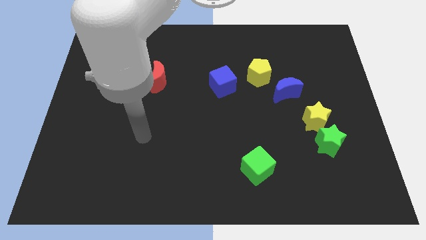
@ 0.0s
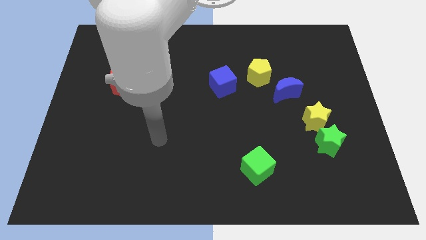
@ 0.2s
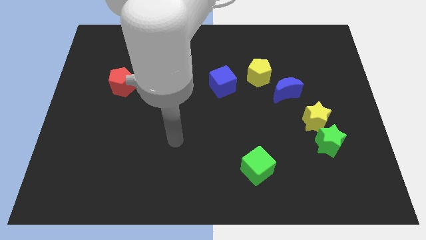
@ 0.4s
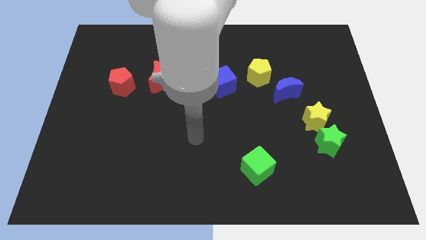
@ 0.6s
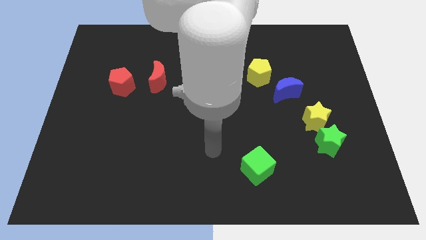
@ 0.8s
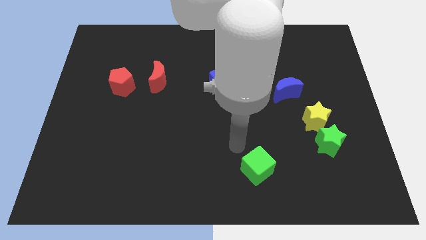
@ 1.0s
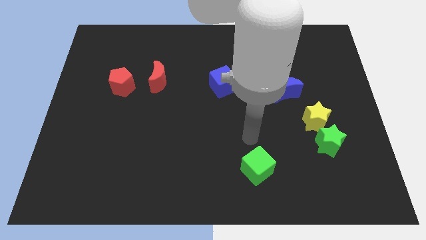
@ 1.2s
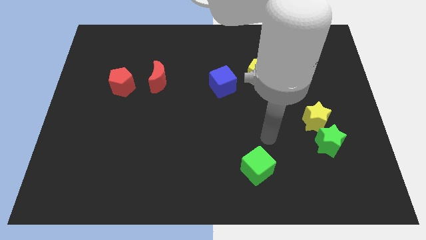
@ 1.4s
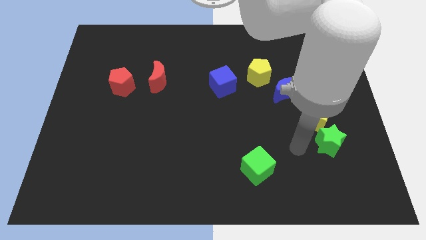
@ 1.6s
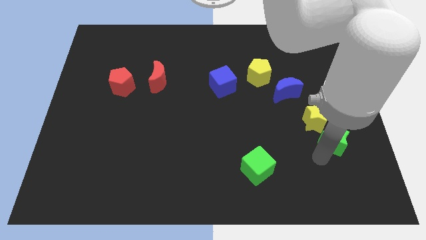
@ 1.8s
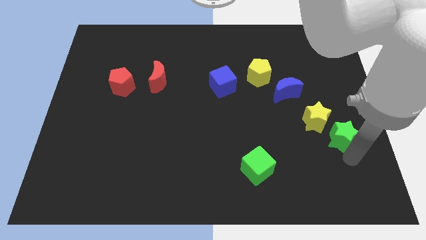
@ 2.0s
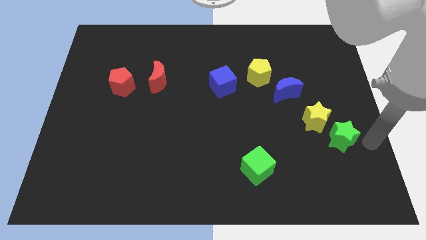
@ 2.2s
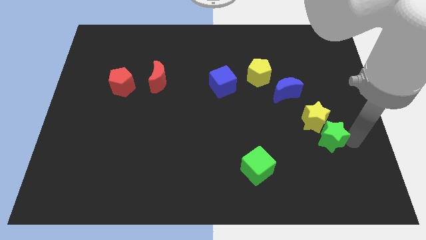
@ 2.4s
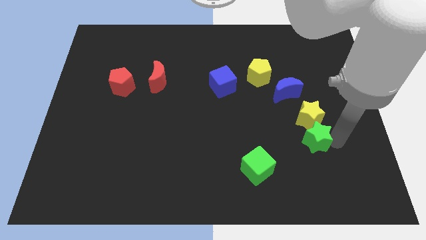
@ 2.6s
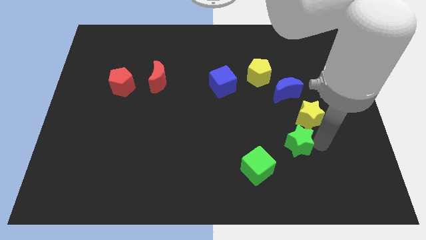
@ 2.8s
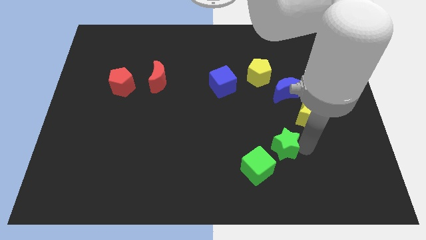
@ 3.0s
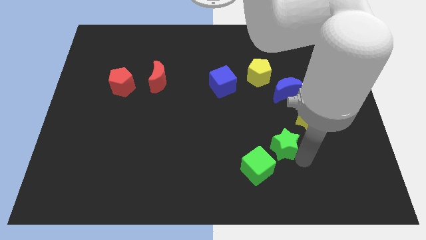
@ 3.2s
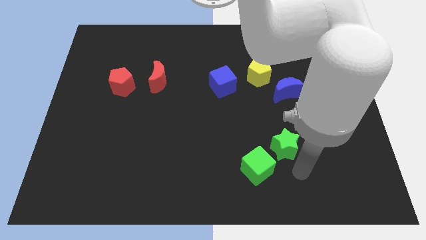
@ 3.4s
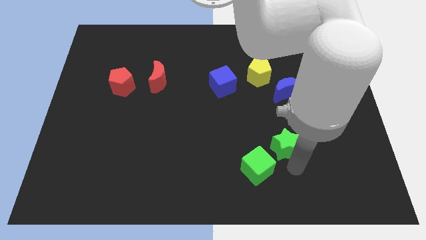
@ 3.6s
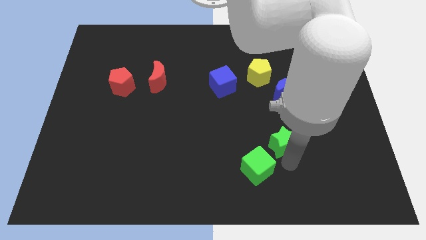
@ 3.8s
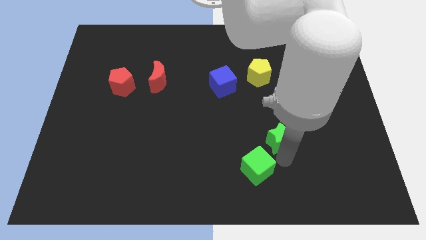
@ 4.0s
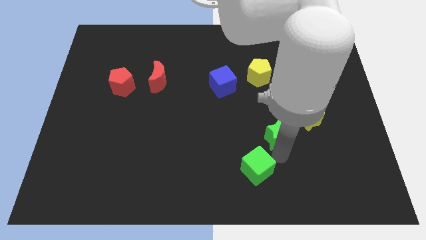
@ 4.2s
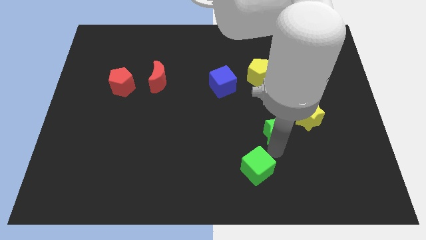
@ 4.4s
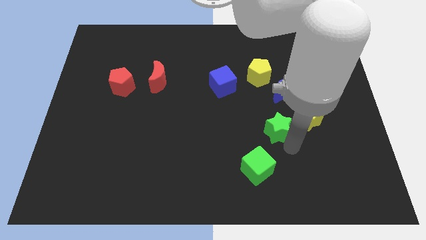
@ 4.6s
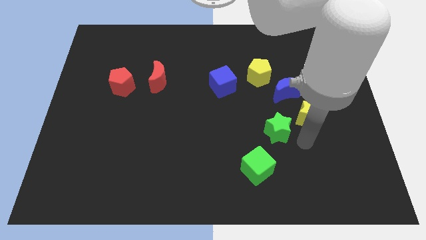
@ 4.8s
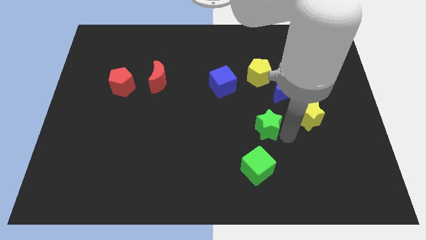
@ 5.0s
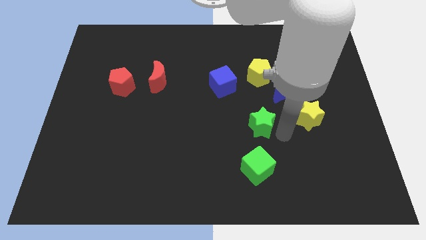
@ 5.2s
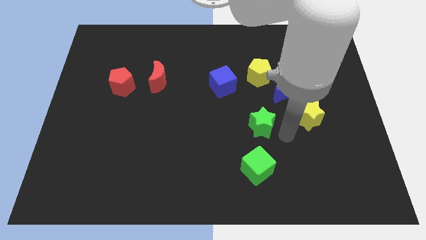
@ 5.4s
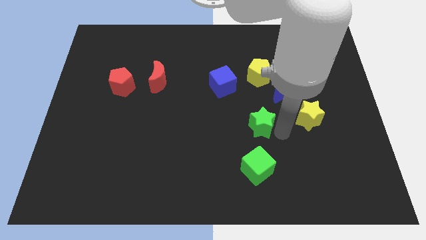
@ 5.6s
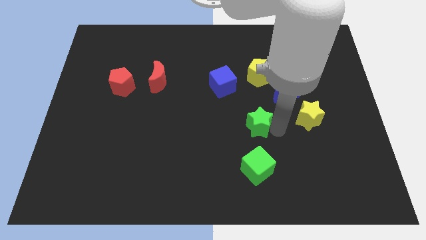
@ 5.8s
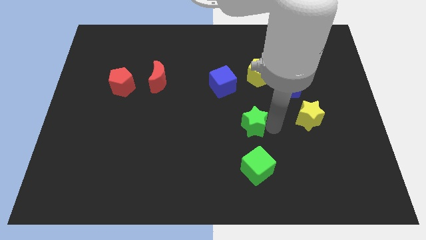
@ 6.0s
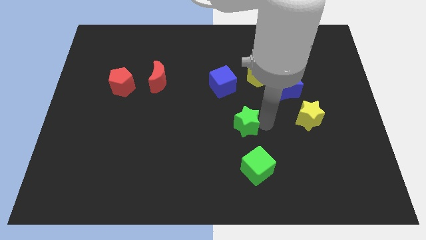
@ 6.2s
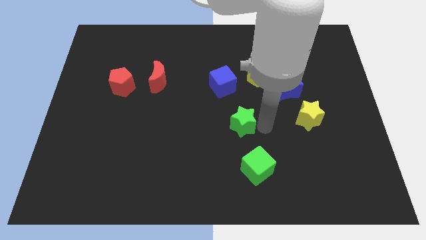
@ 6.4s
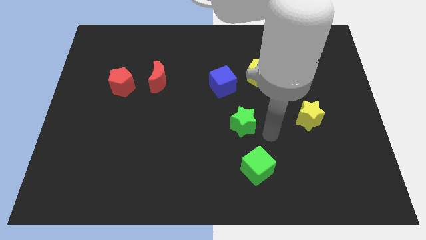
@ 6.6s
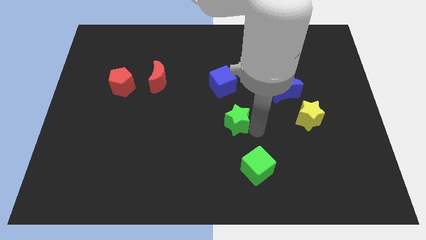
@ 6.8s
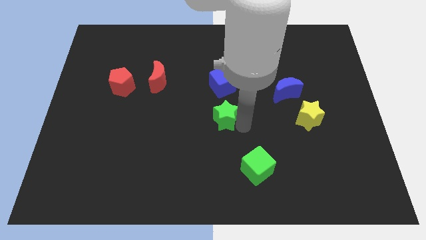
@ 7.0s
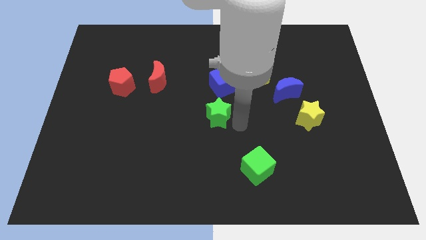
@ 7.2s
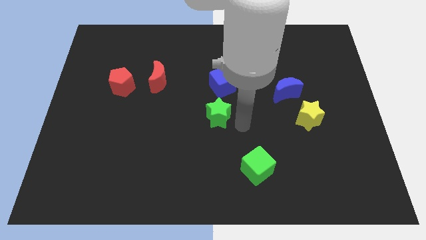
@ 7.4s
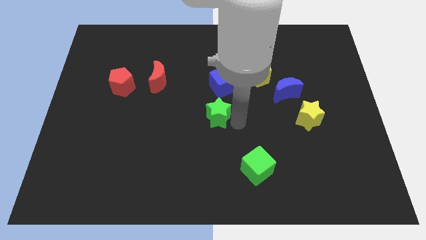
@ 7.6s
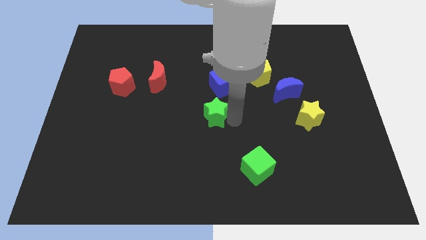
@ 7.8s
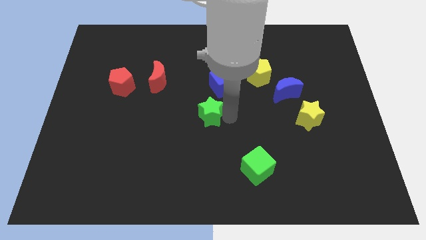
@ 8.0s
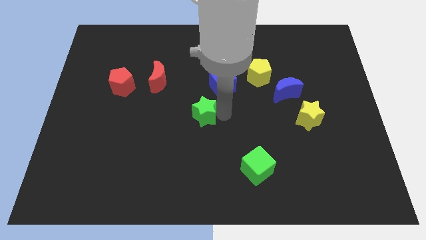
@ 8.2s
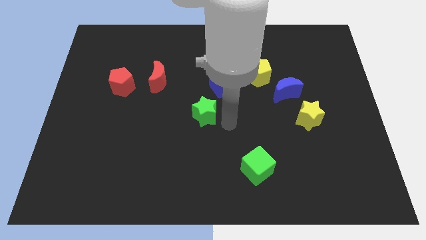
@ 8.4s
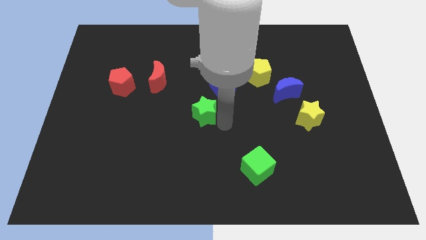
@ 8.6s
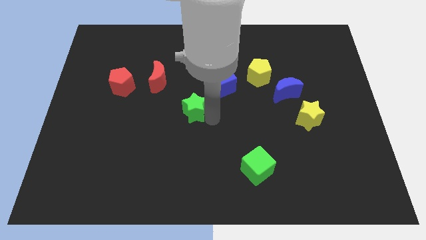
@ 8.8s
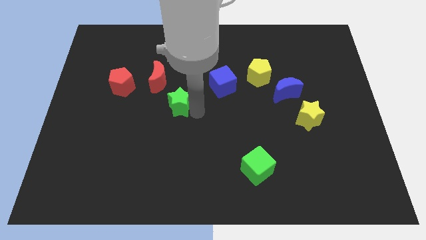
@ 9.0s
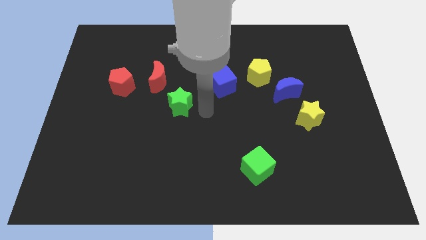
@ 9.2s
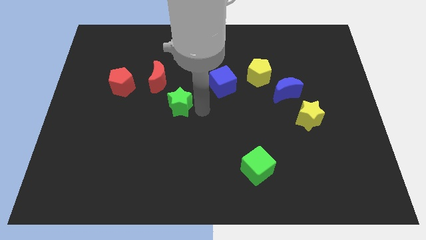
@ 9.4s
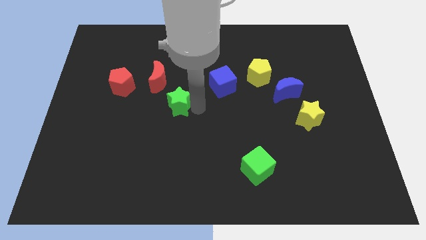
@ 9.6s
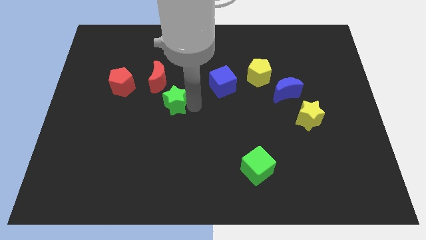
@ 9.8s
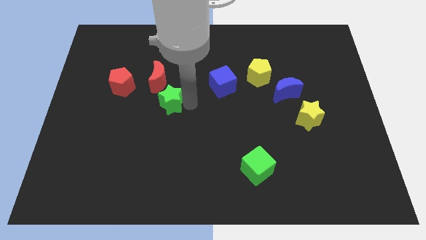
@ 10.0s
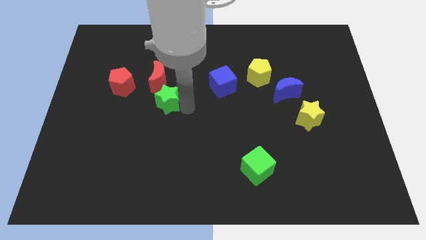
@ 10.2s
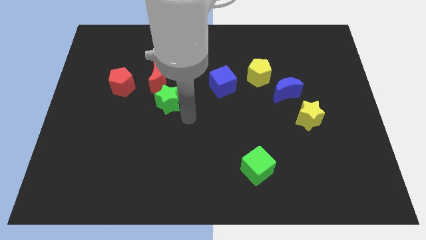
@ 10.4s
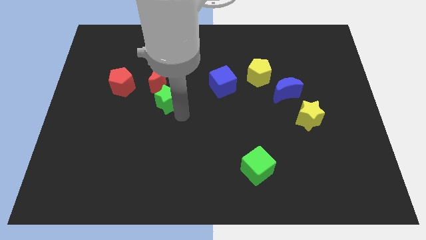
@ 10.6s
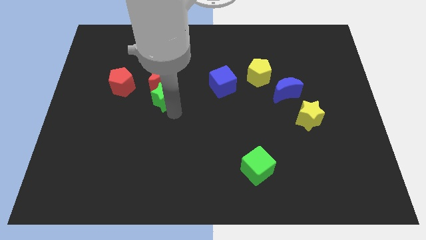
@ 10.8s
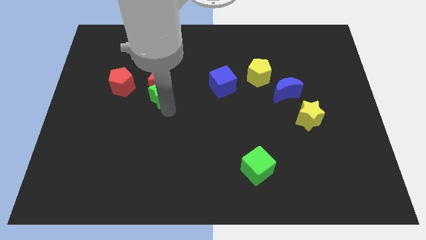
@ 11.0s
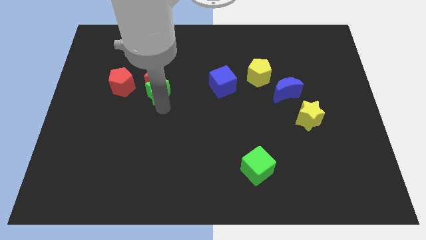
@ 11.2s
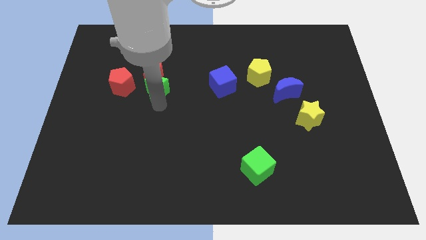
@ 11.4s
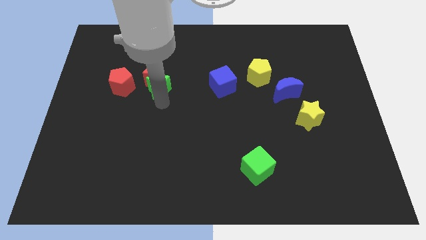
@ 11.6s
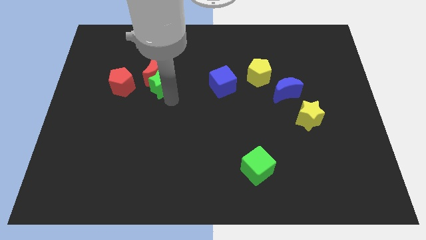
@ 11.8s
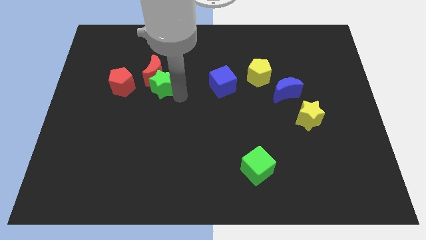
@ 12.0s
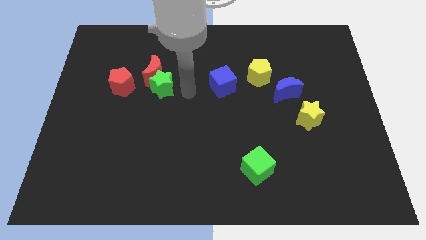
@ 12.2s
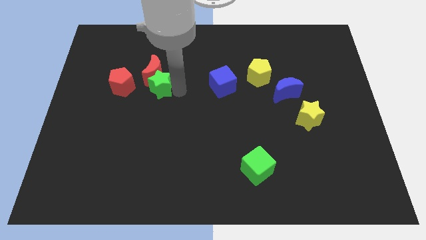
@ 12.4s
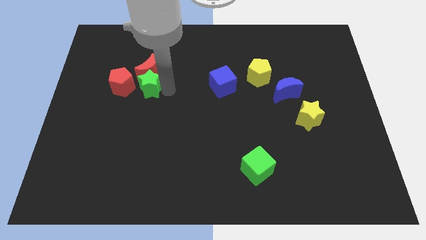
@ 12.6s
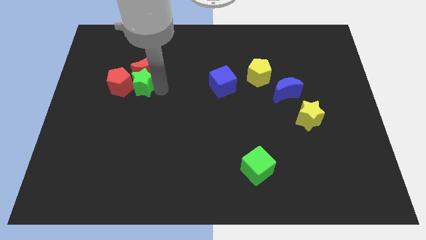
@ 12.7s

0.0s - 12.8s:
move the green star close to the red pentagon

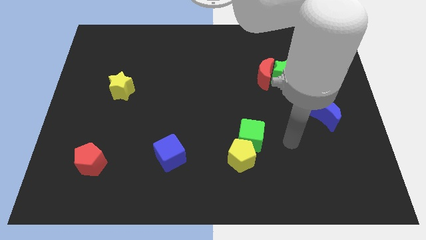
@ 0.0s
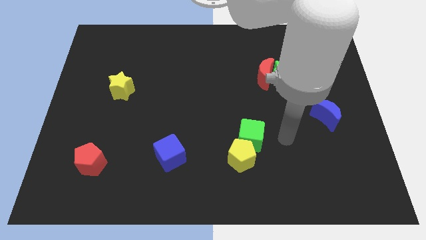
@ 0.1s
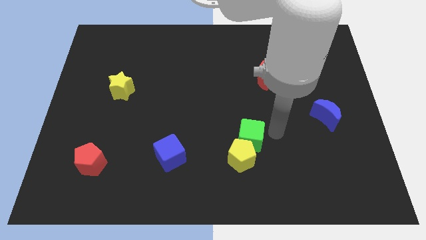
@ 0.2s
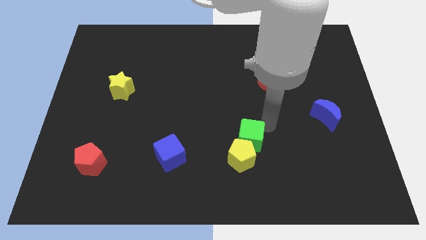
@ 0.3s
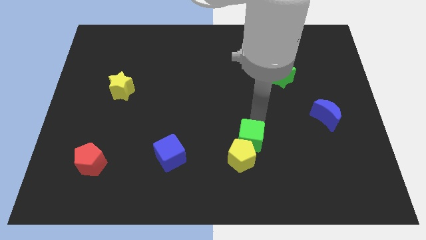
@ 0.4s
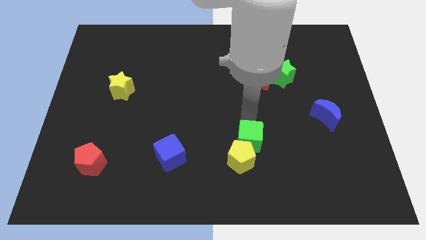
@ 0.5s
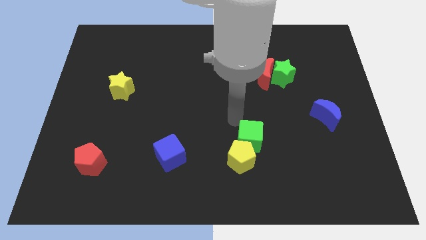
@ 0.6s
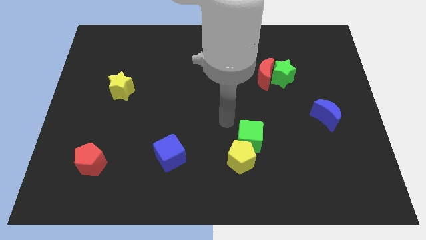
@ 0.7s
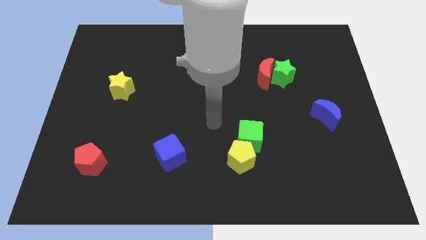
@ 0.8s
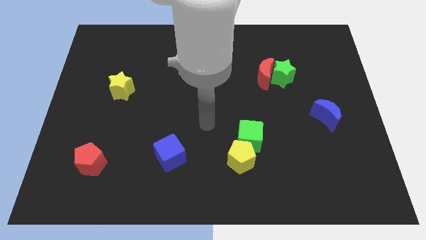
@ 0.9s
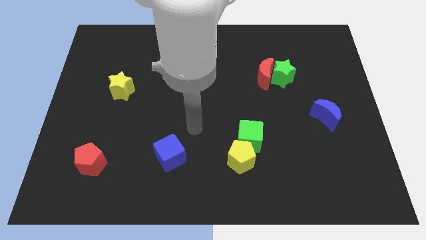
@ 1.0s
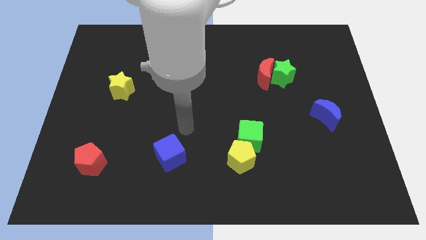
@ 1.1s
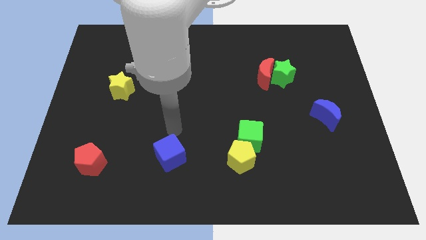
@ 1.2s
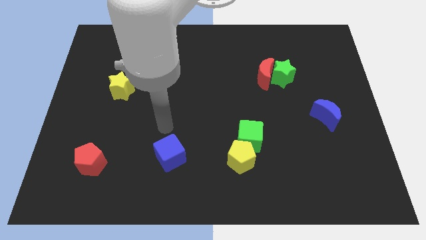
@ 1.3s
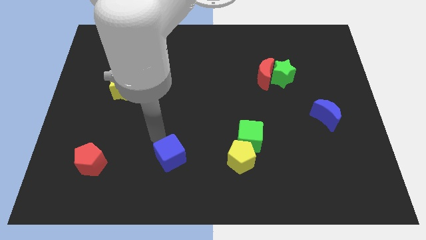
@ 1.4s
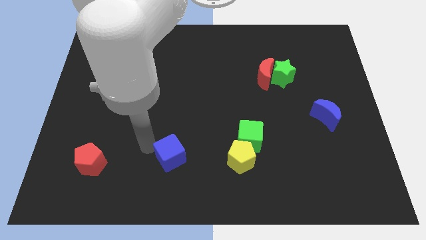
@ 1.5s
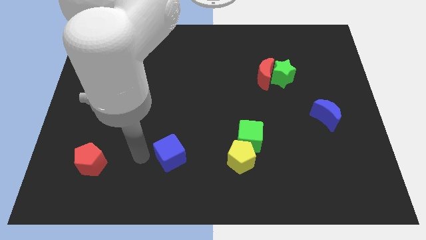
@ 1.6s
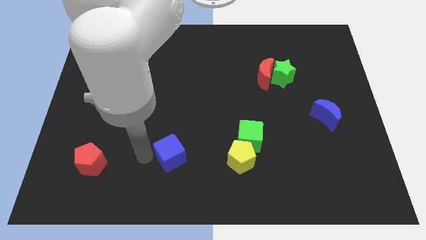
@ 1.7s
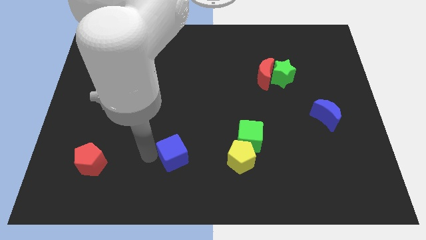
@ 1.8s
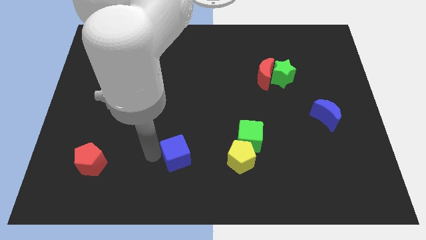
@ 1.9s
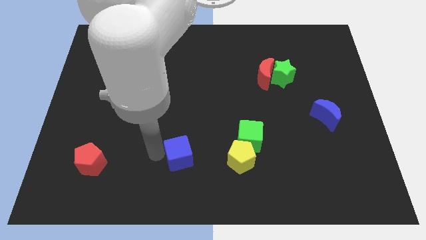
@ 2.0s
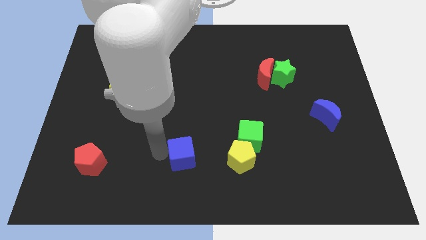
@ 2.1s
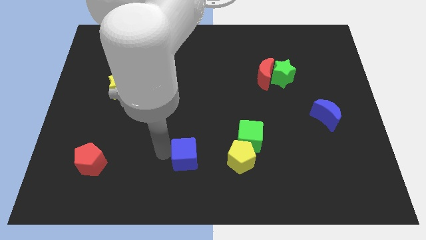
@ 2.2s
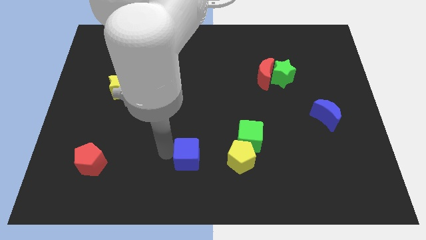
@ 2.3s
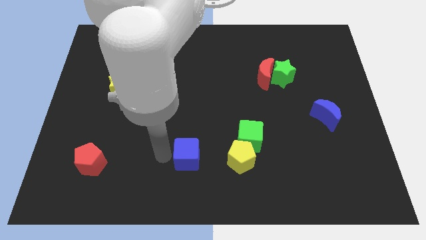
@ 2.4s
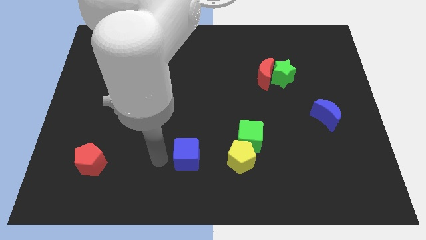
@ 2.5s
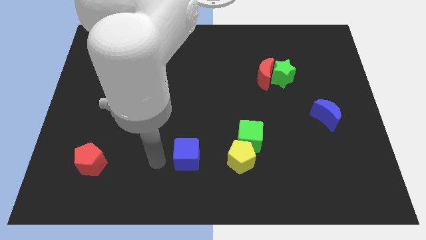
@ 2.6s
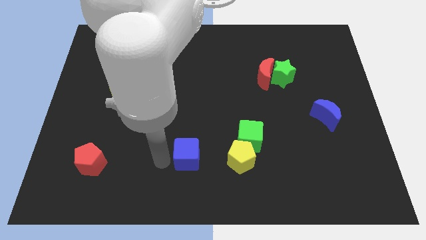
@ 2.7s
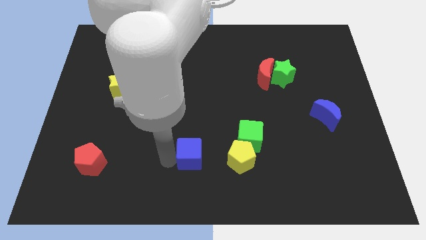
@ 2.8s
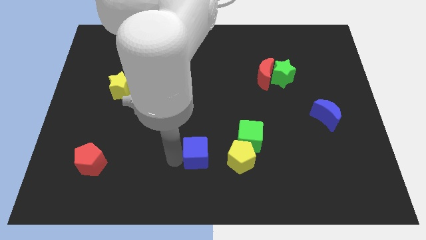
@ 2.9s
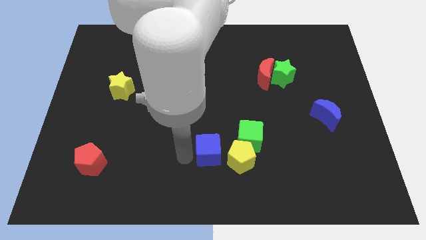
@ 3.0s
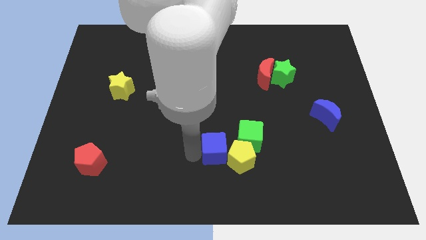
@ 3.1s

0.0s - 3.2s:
put the blue cube next to the yellow pentagon
